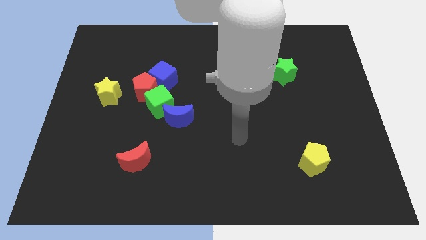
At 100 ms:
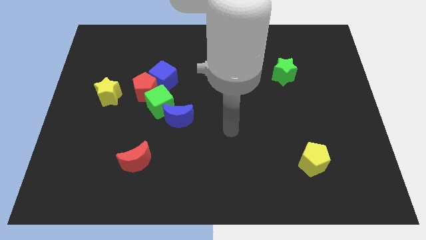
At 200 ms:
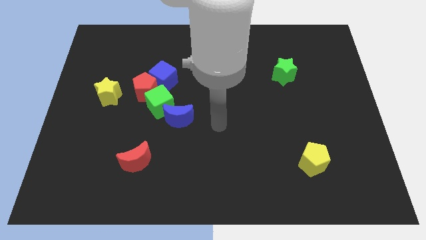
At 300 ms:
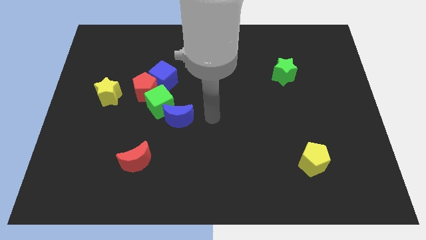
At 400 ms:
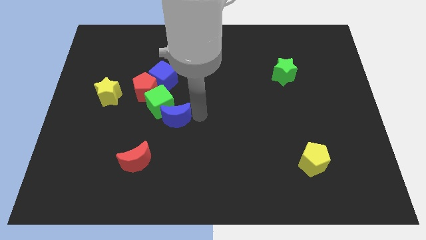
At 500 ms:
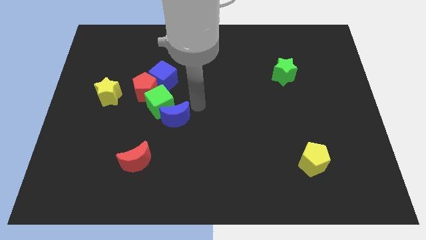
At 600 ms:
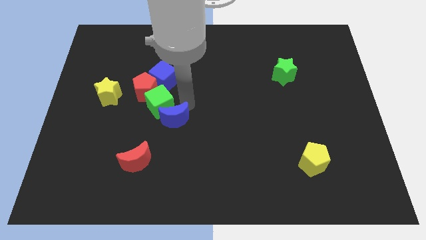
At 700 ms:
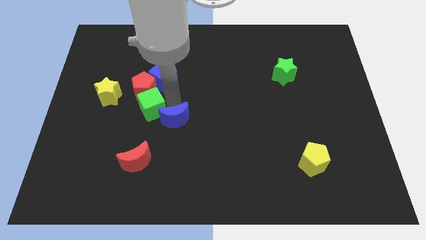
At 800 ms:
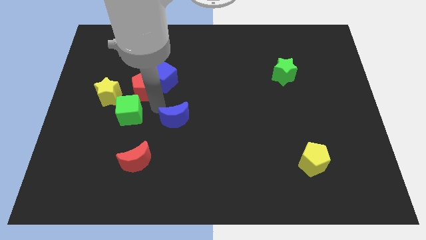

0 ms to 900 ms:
separate the blue moon from the green cube

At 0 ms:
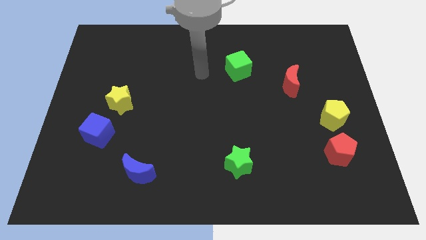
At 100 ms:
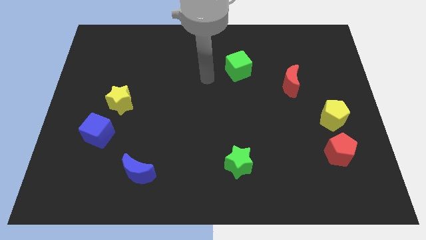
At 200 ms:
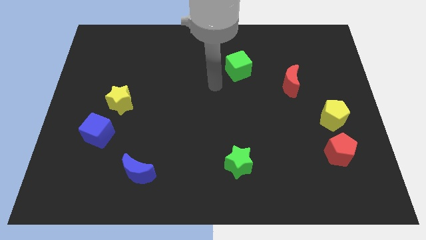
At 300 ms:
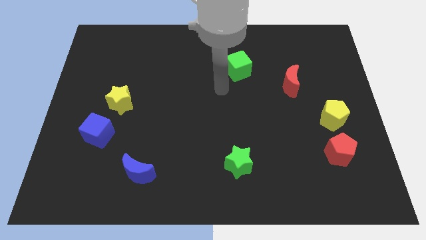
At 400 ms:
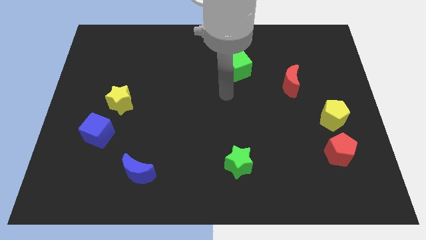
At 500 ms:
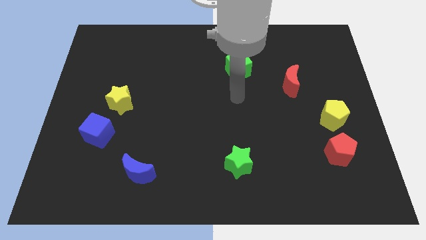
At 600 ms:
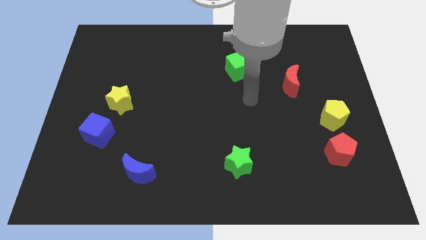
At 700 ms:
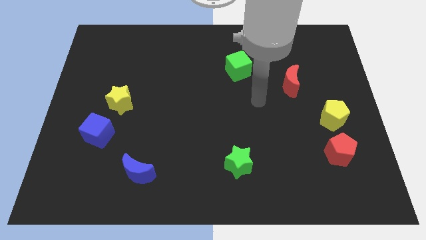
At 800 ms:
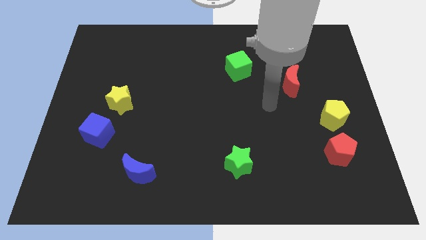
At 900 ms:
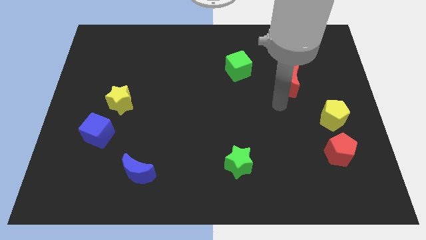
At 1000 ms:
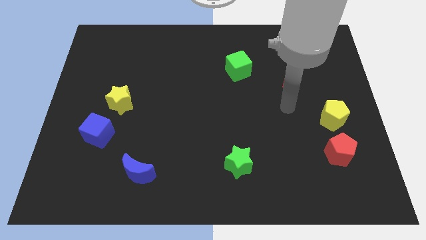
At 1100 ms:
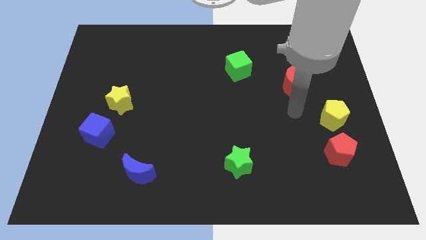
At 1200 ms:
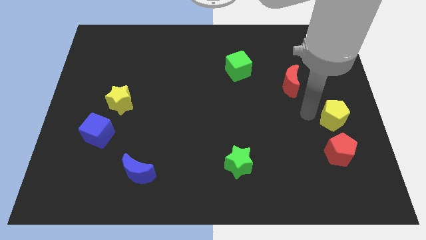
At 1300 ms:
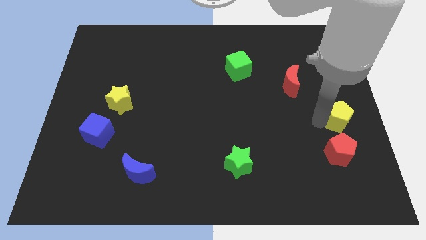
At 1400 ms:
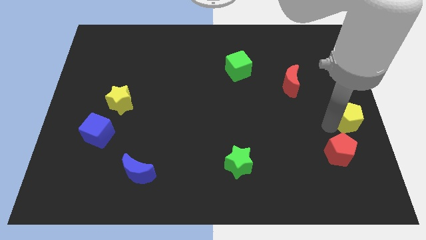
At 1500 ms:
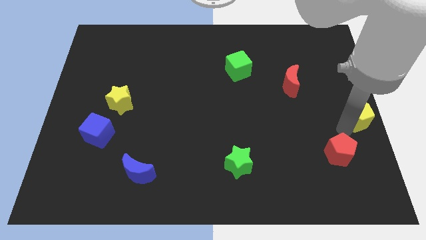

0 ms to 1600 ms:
move the red pentagon away from the yellow pentagon

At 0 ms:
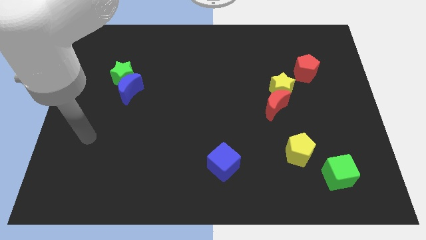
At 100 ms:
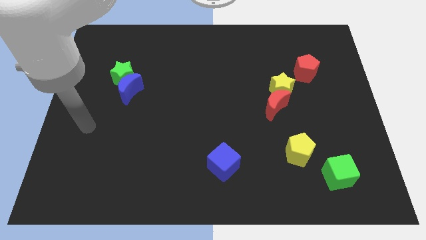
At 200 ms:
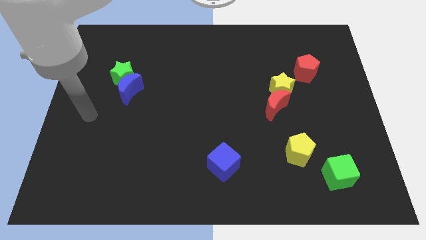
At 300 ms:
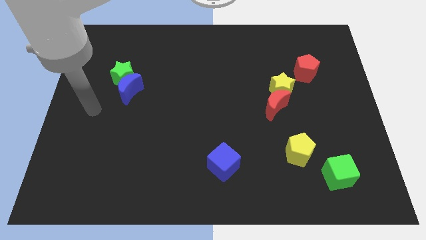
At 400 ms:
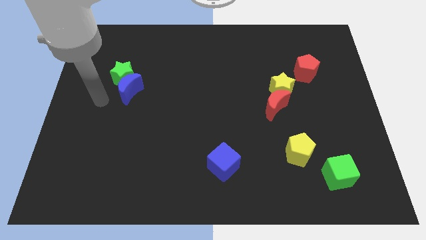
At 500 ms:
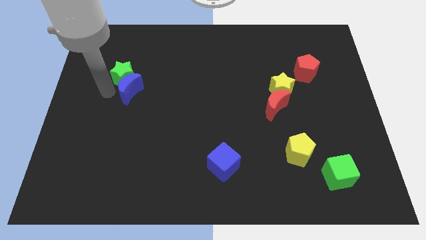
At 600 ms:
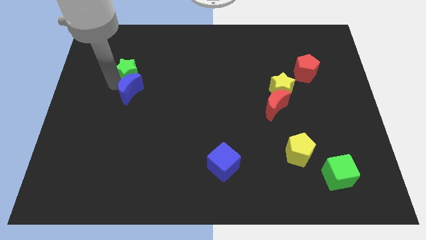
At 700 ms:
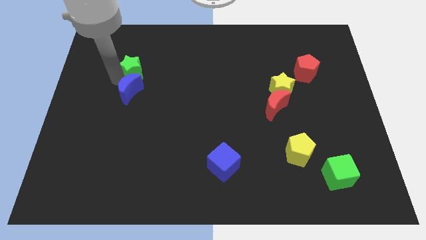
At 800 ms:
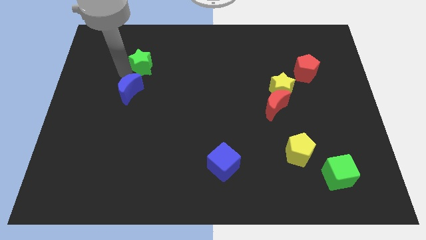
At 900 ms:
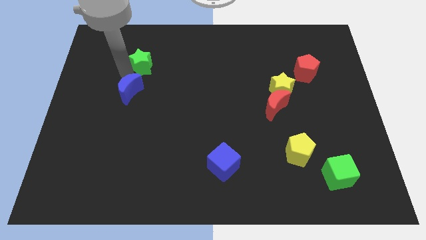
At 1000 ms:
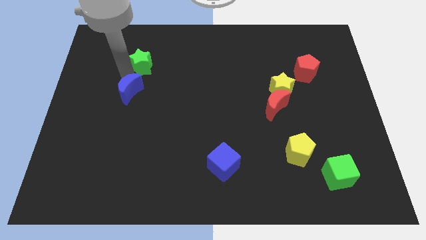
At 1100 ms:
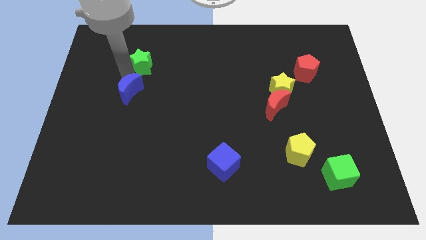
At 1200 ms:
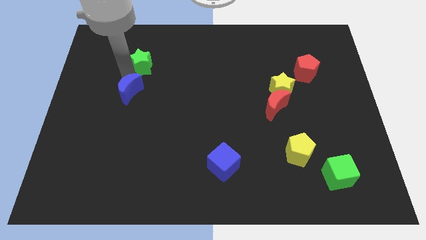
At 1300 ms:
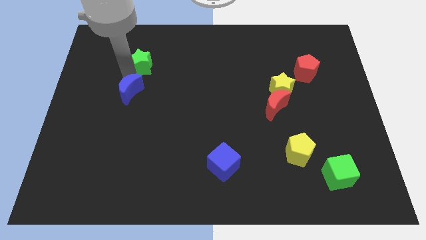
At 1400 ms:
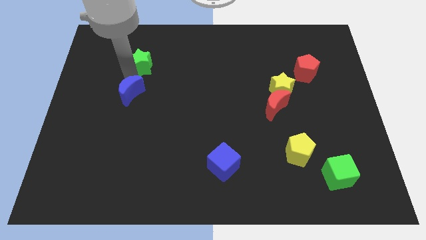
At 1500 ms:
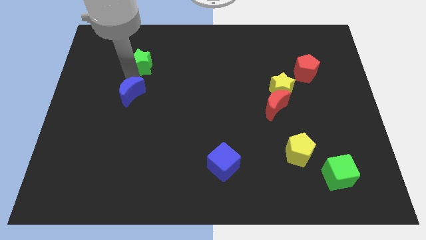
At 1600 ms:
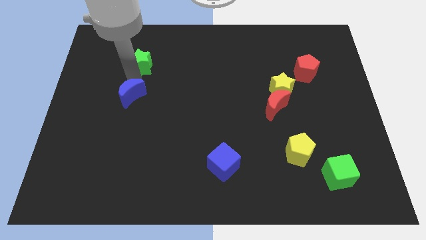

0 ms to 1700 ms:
move the blue moon away from the green star

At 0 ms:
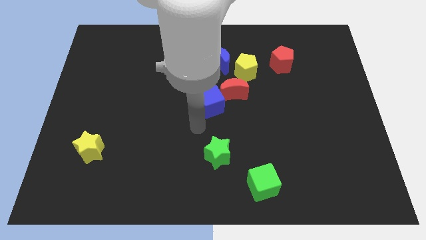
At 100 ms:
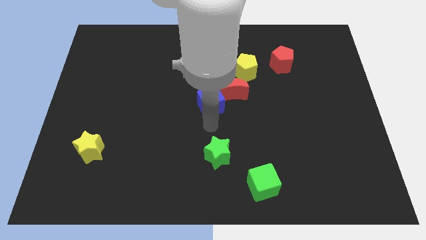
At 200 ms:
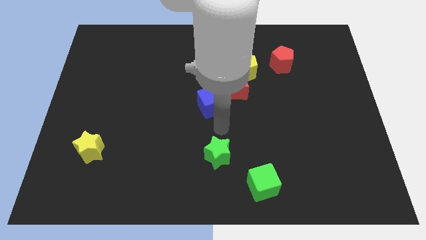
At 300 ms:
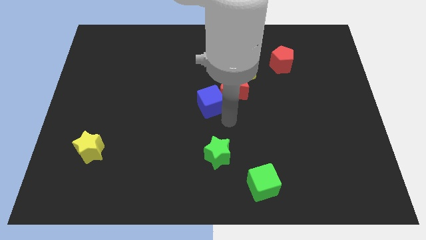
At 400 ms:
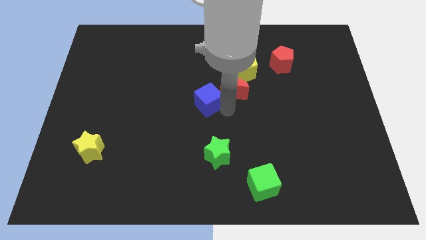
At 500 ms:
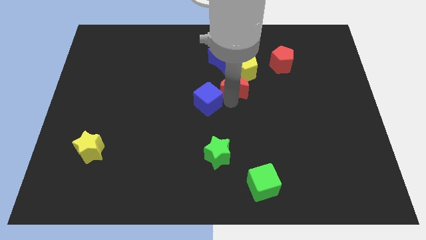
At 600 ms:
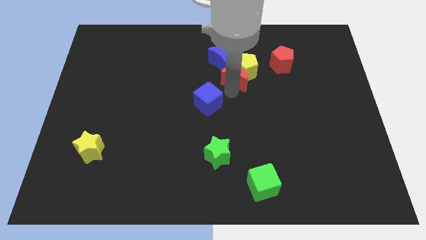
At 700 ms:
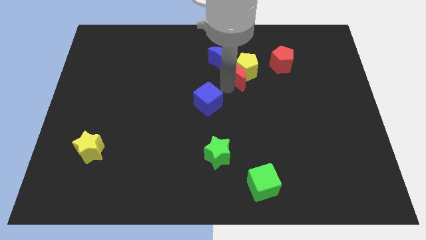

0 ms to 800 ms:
pull the blue cube apart from the red moon

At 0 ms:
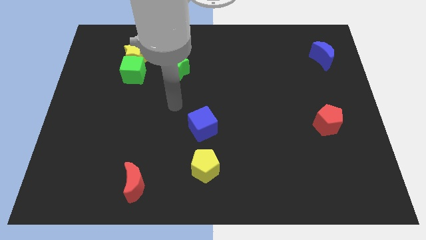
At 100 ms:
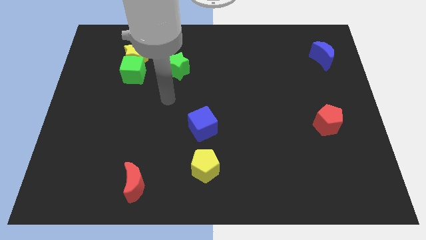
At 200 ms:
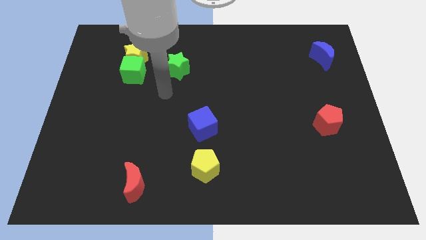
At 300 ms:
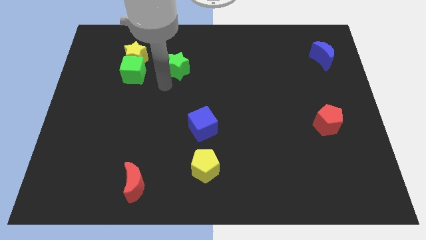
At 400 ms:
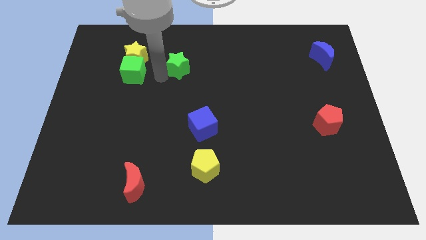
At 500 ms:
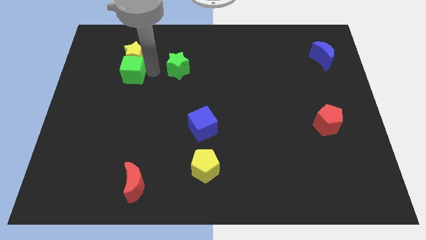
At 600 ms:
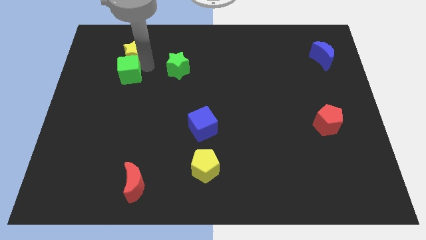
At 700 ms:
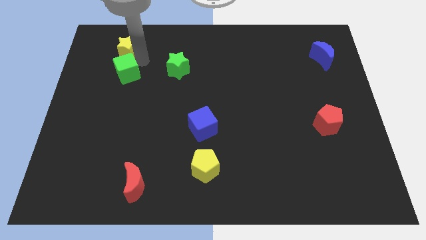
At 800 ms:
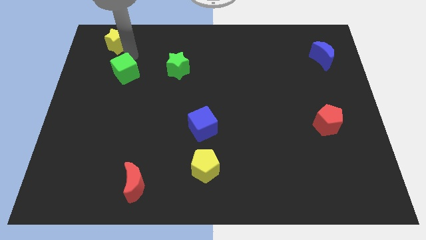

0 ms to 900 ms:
pull the green cube apart from the yellow star

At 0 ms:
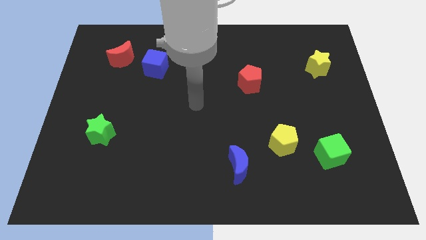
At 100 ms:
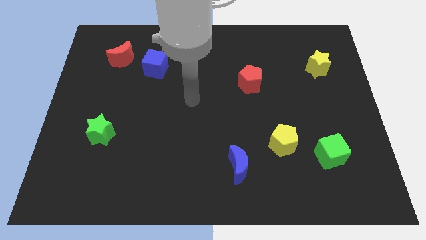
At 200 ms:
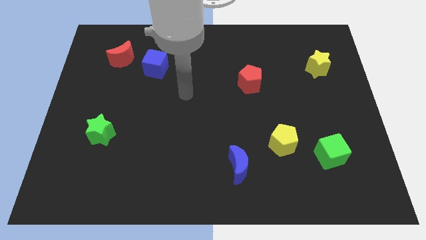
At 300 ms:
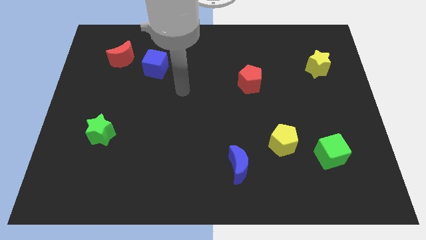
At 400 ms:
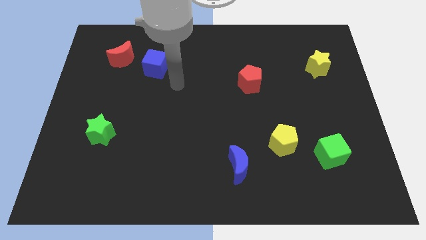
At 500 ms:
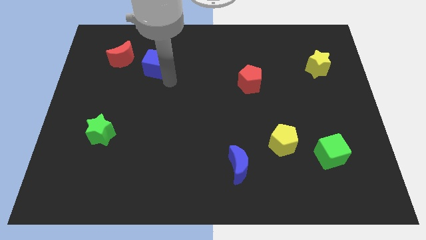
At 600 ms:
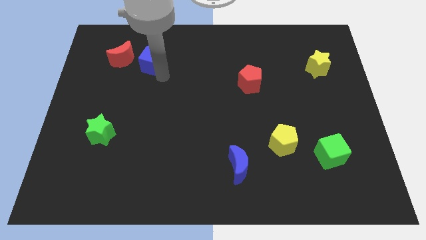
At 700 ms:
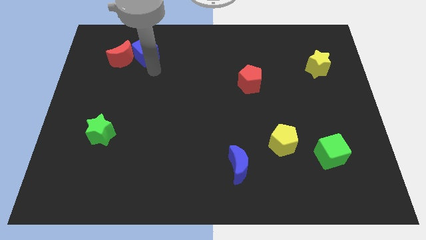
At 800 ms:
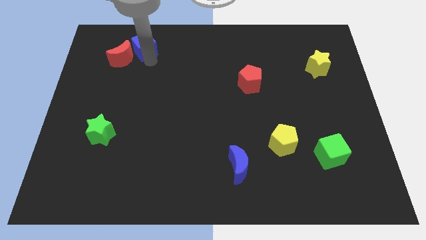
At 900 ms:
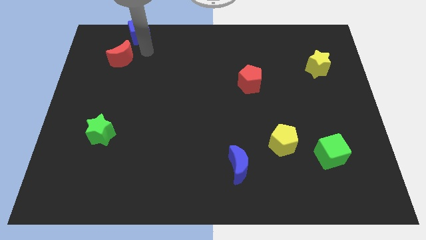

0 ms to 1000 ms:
separate the red moon from the blue cube

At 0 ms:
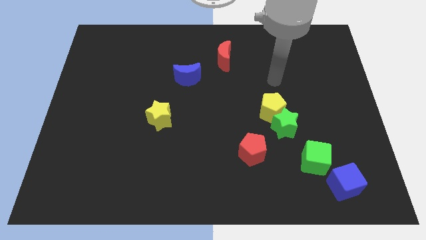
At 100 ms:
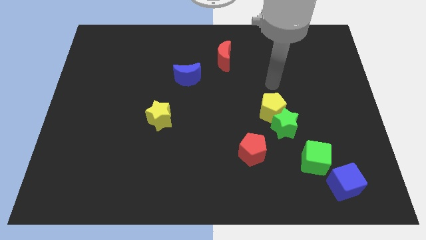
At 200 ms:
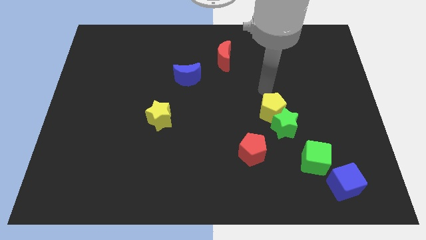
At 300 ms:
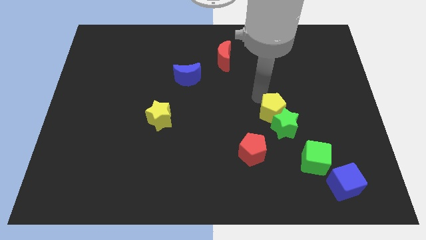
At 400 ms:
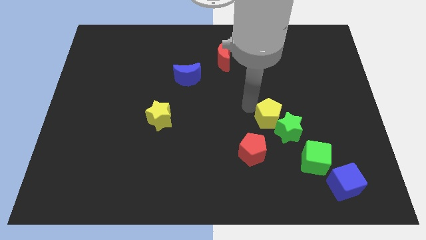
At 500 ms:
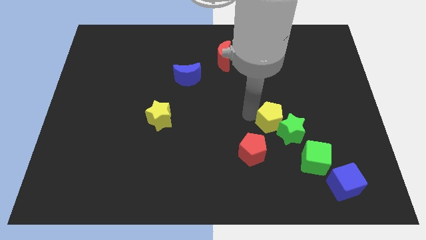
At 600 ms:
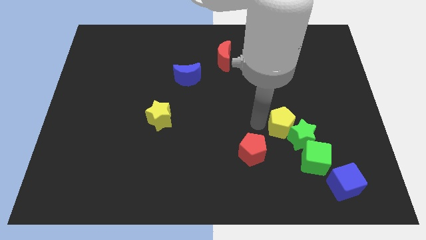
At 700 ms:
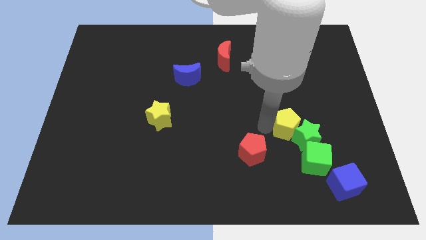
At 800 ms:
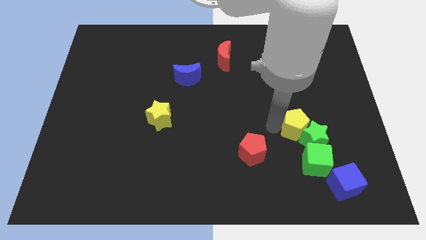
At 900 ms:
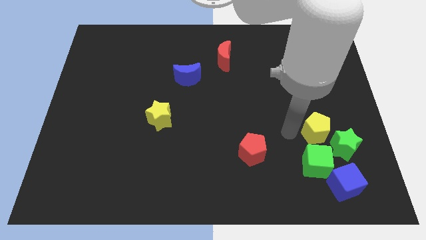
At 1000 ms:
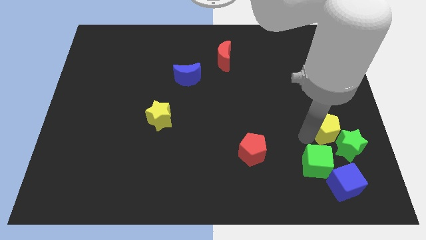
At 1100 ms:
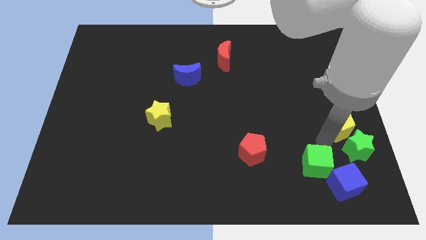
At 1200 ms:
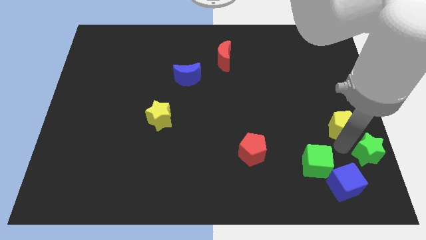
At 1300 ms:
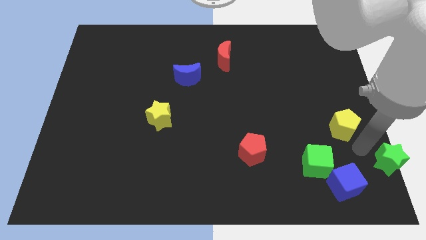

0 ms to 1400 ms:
move the yellow pentagon away from the green star

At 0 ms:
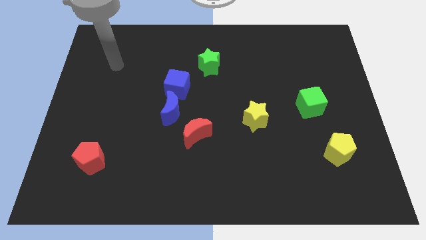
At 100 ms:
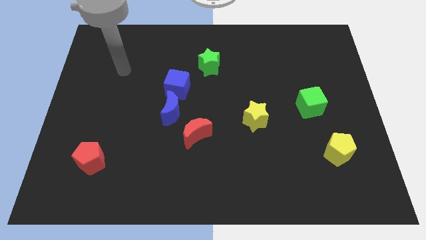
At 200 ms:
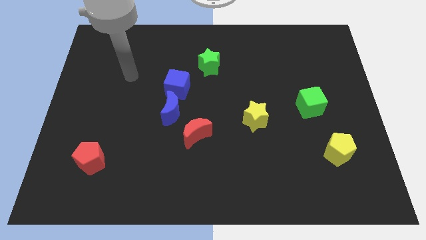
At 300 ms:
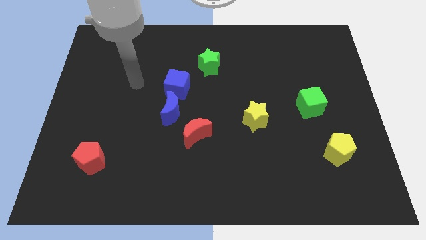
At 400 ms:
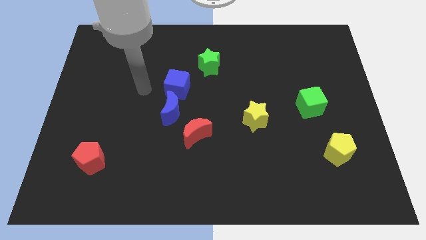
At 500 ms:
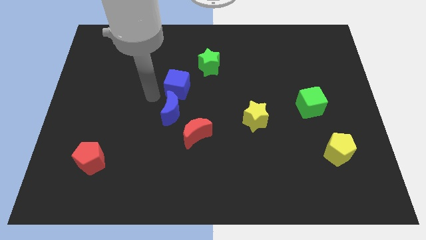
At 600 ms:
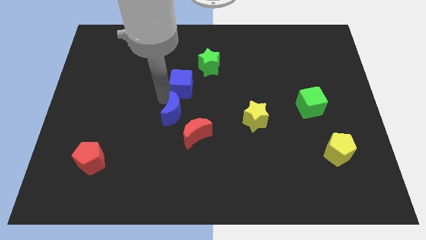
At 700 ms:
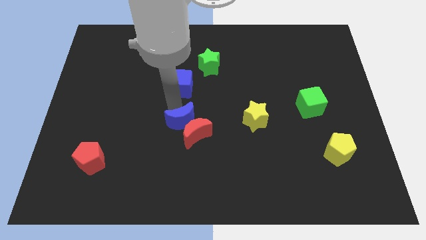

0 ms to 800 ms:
separate the blue cube from the blue moon

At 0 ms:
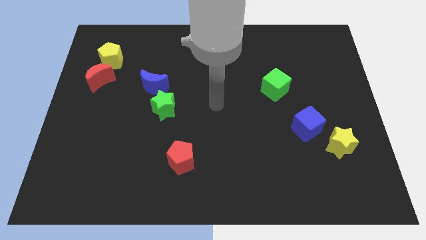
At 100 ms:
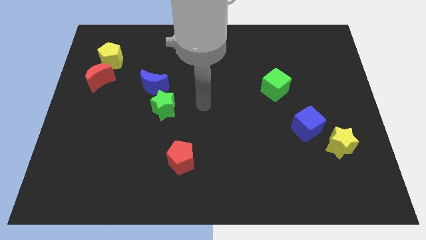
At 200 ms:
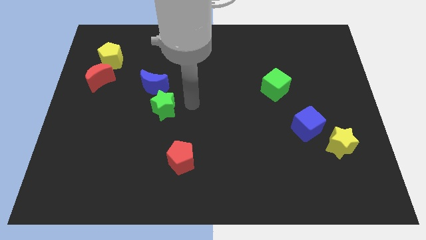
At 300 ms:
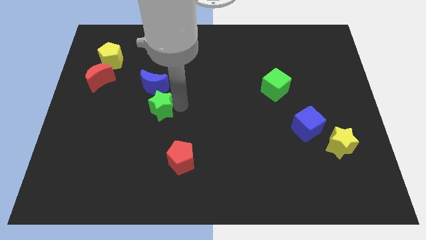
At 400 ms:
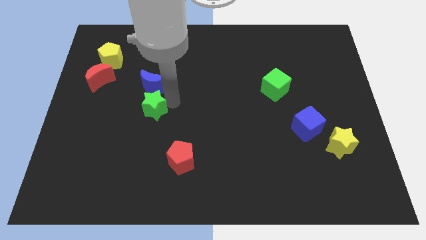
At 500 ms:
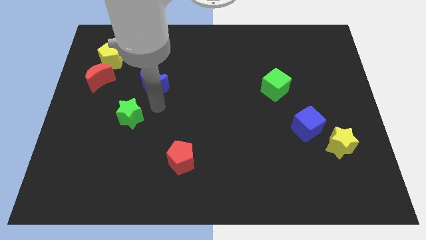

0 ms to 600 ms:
pull the blue moon apart from the green star
